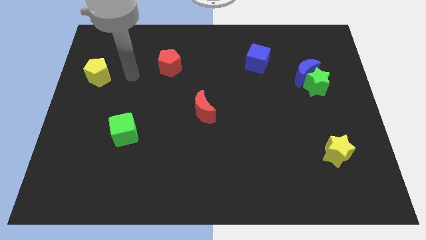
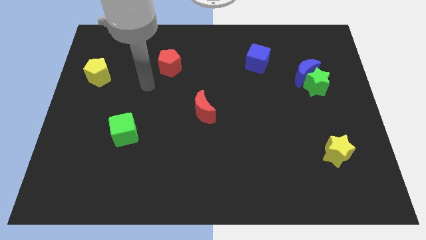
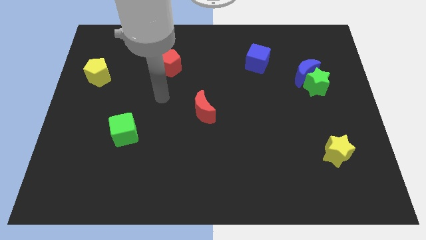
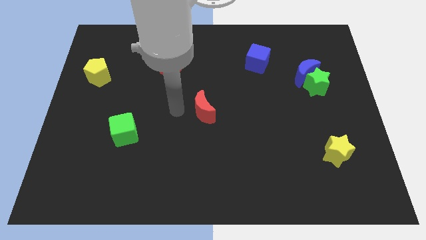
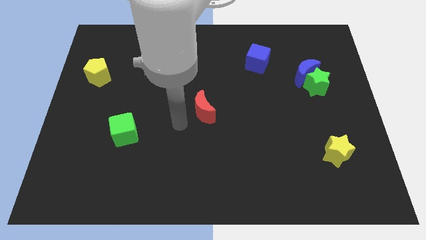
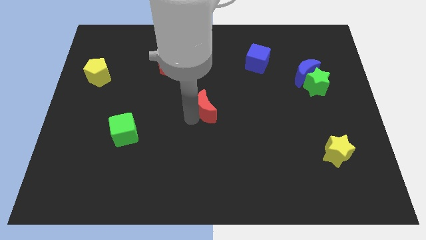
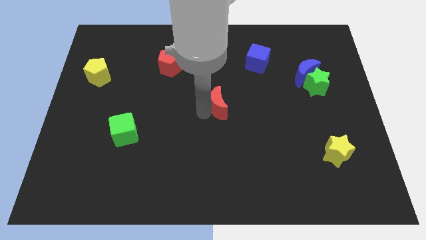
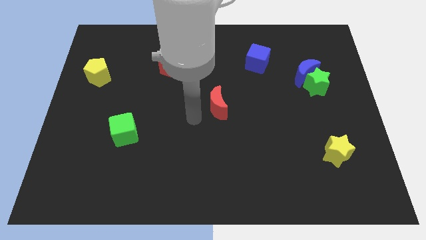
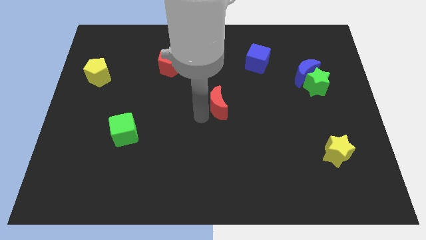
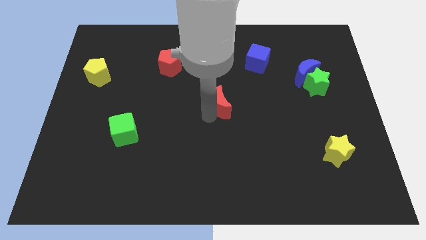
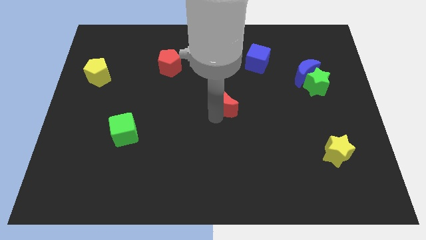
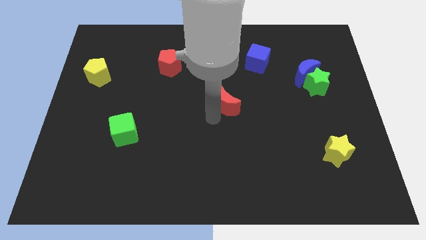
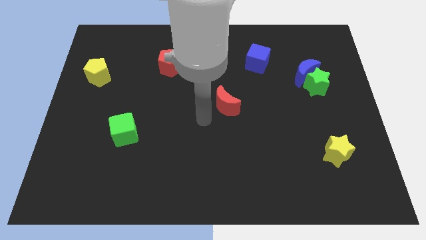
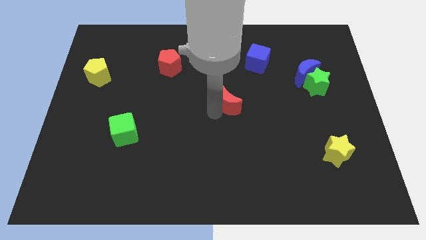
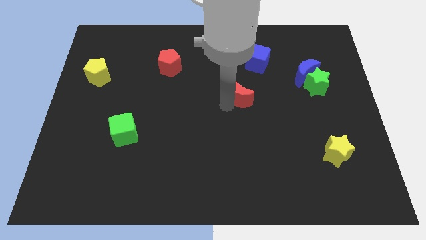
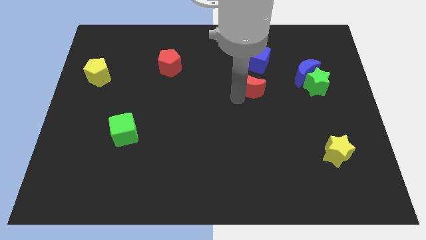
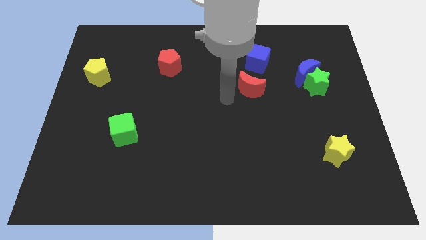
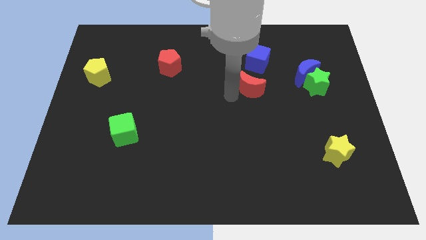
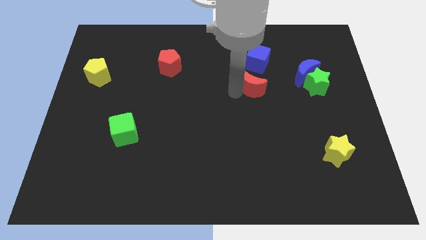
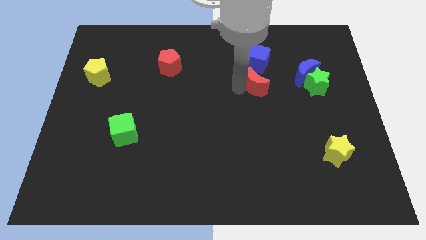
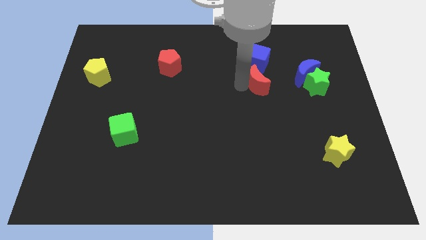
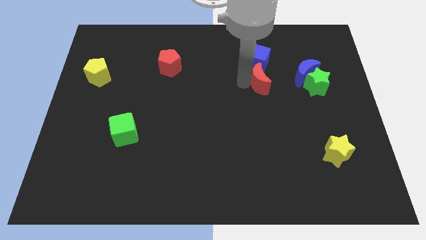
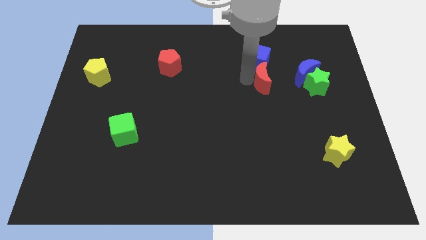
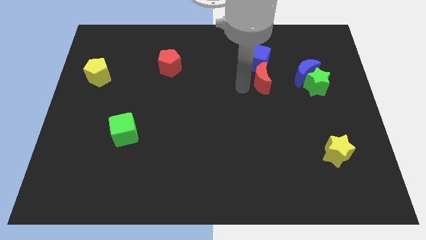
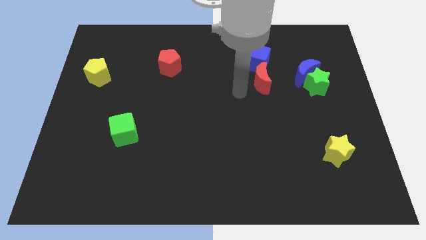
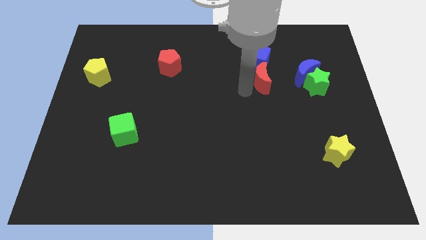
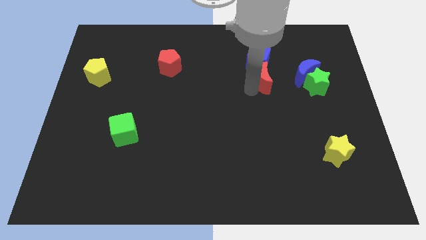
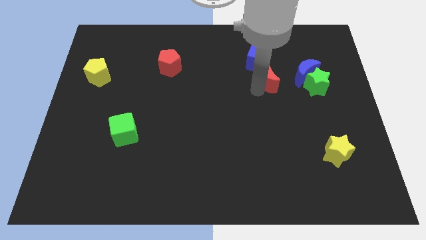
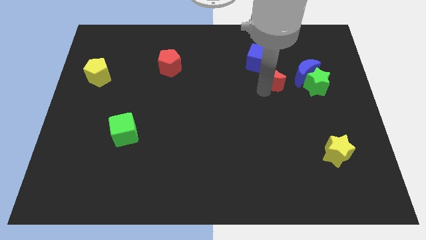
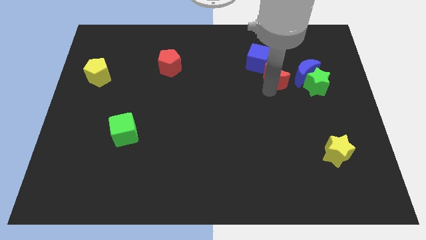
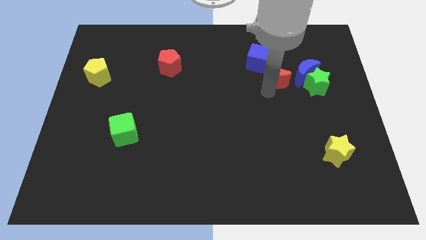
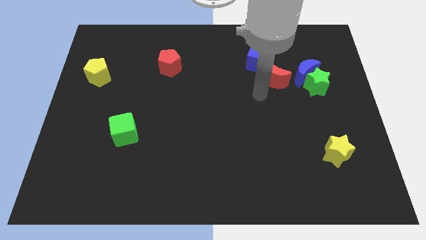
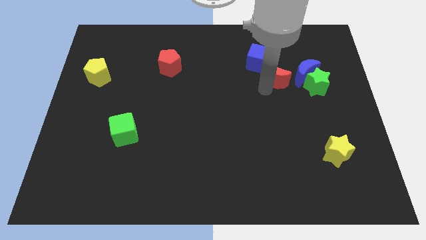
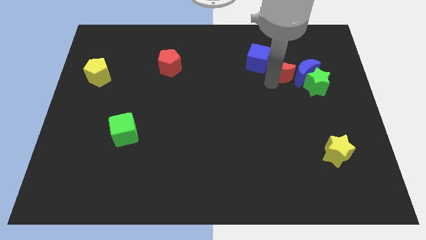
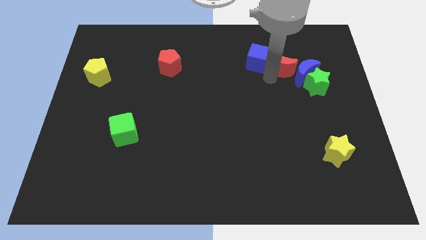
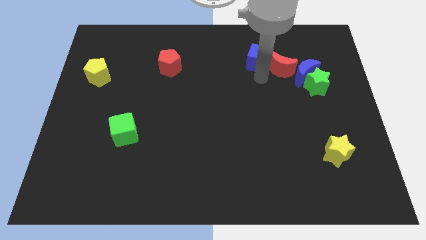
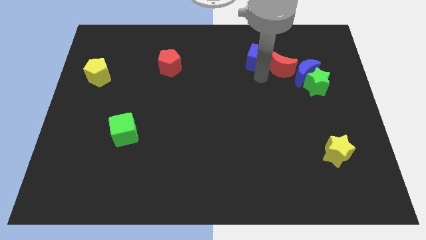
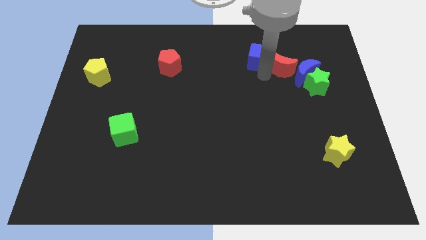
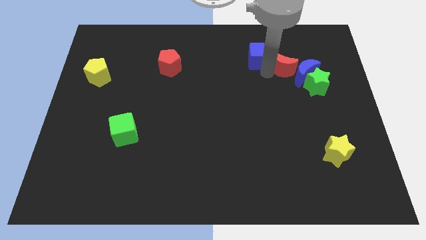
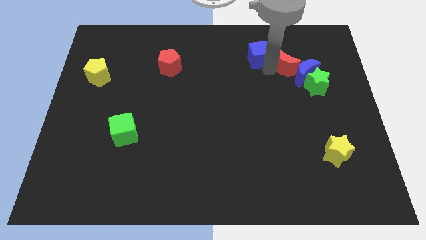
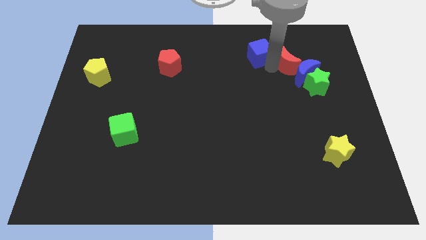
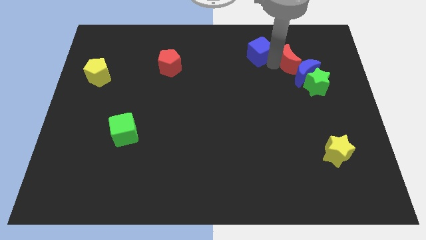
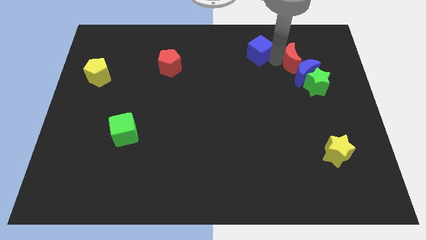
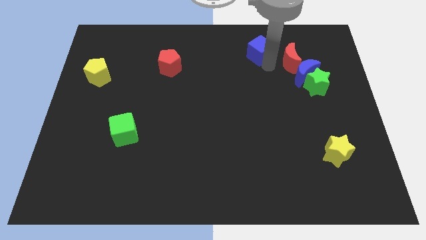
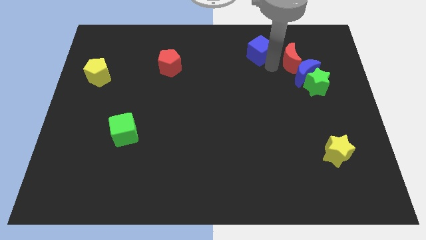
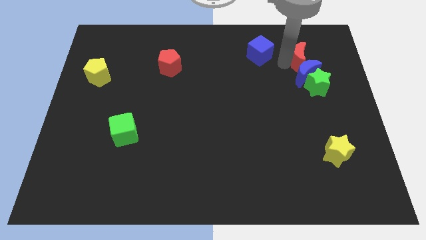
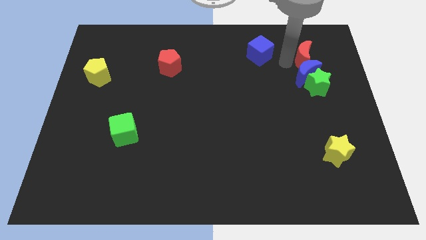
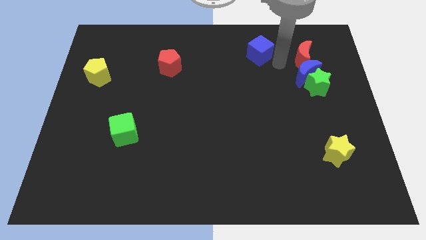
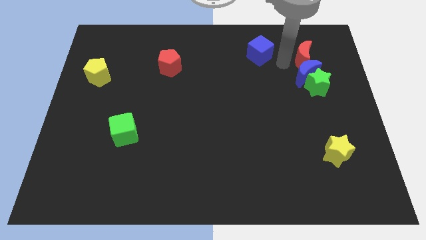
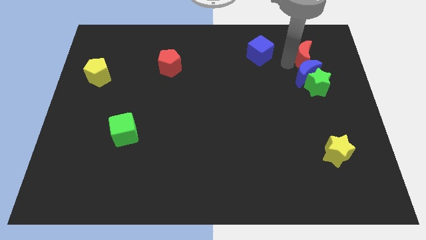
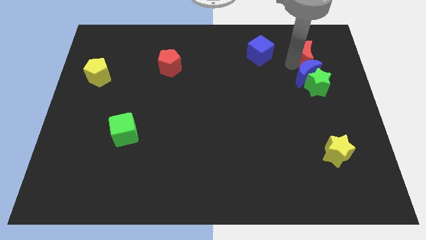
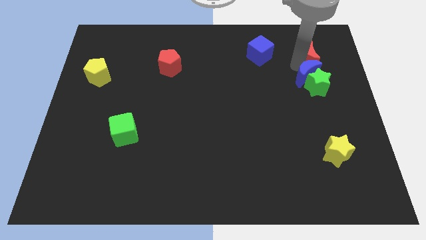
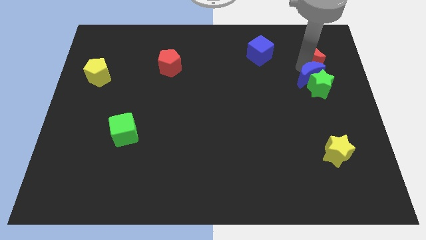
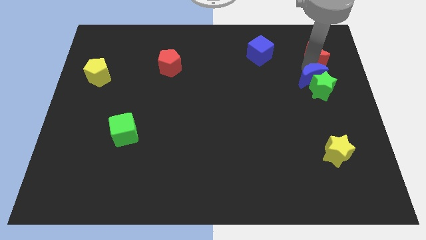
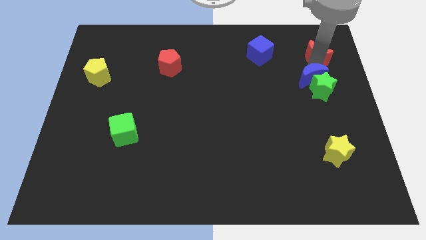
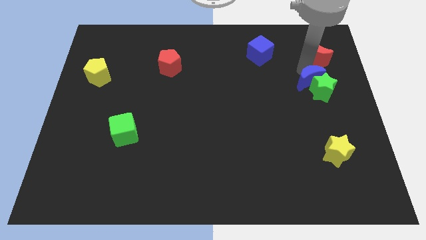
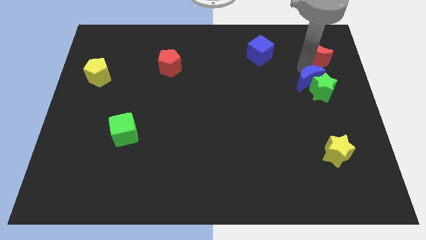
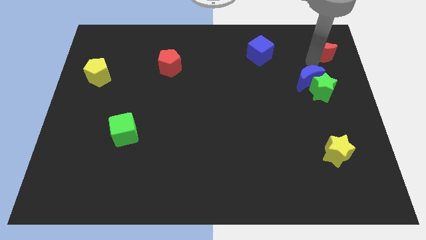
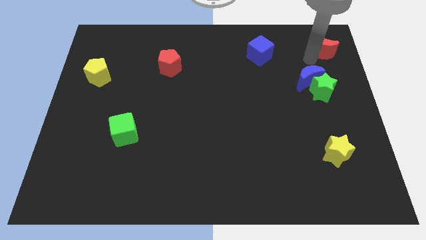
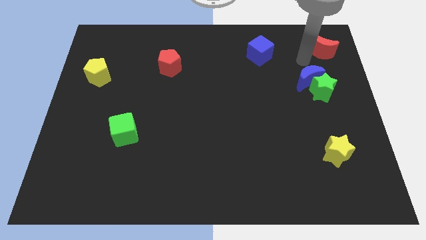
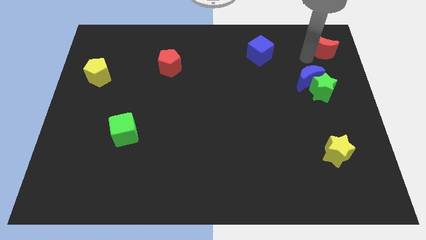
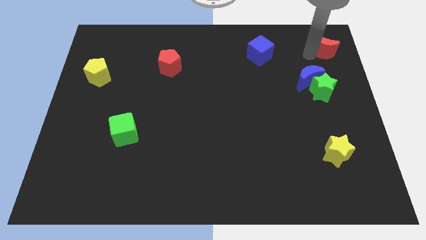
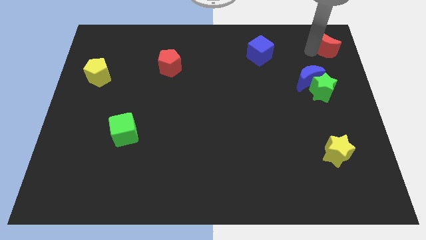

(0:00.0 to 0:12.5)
slide the red moon to the top right of the board

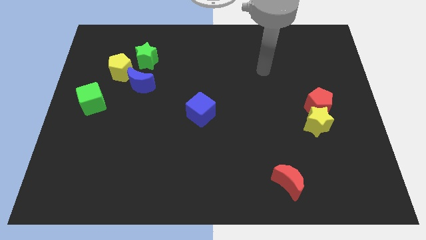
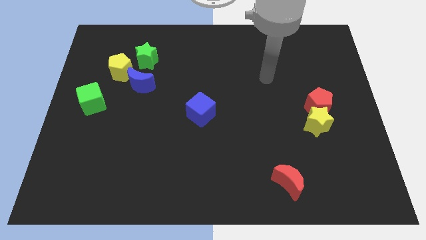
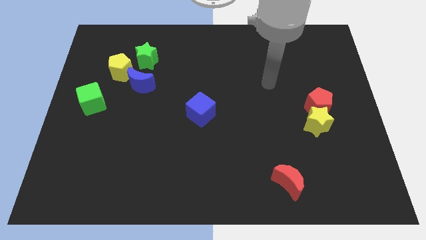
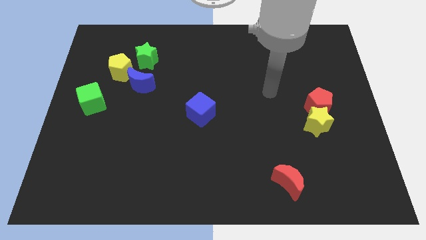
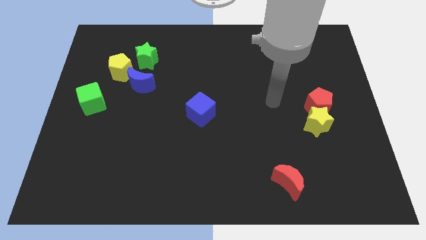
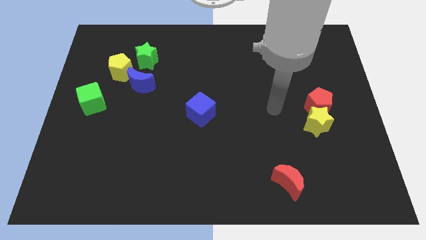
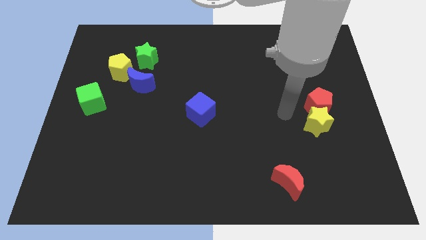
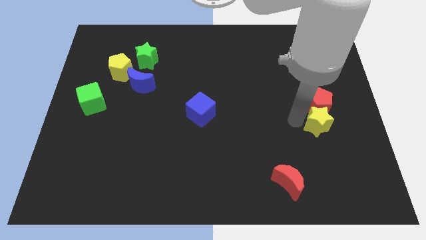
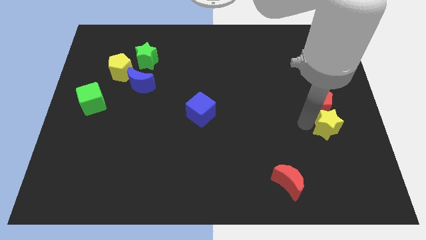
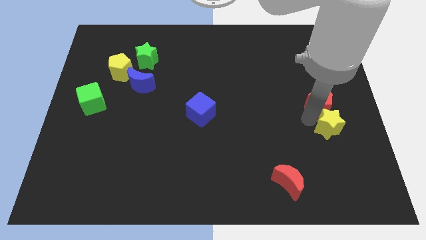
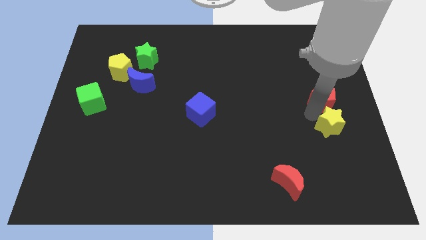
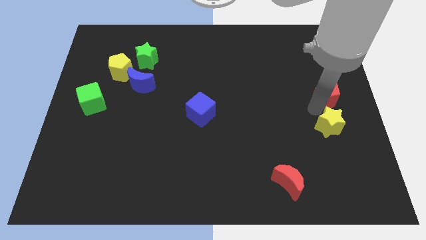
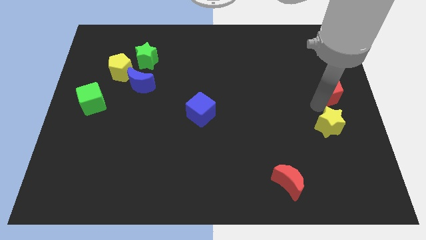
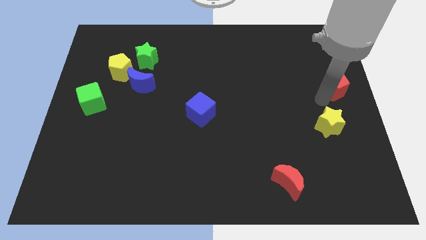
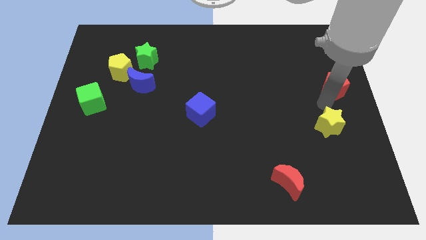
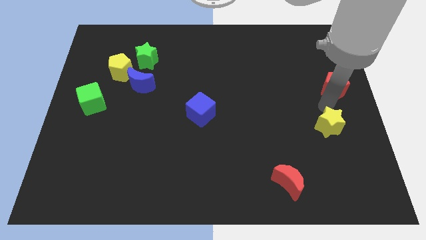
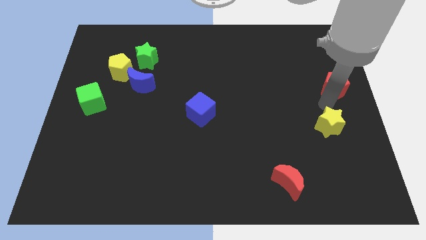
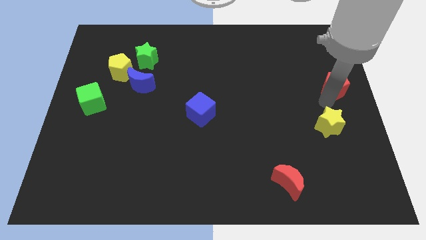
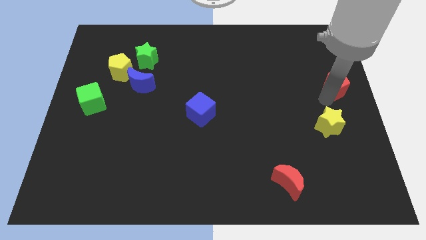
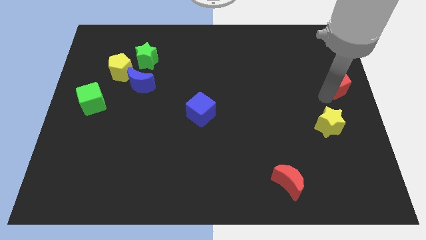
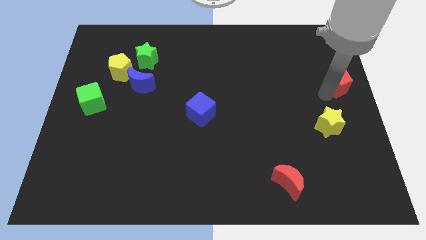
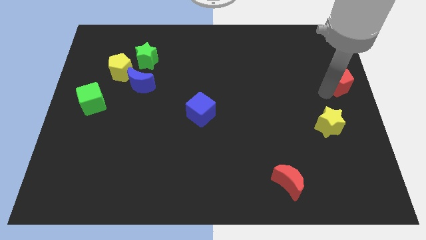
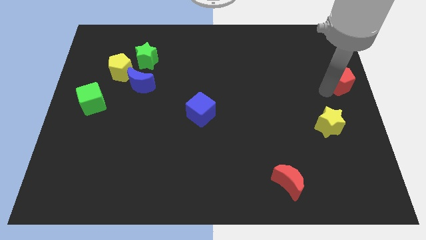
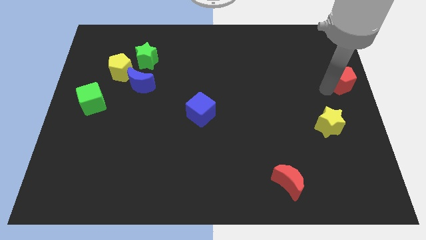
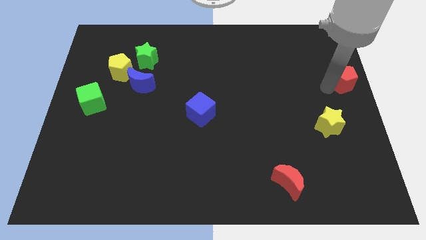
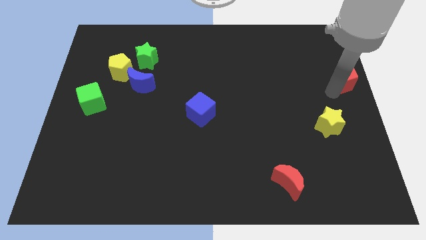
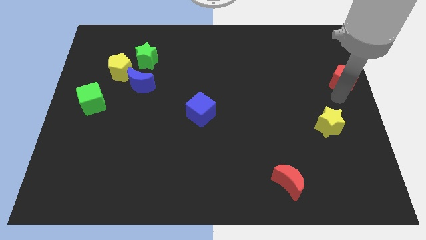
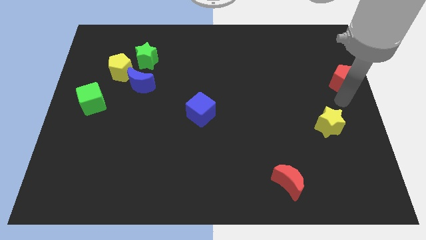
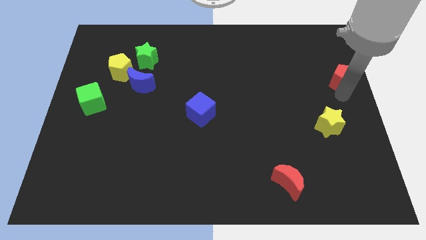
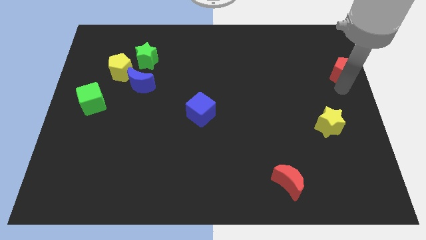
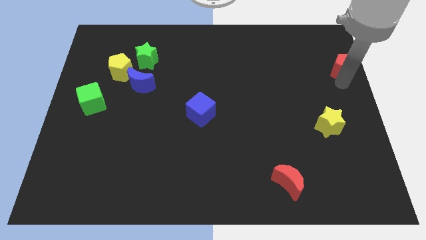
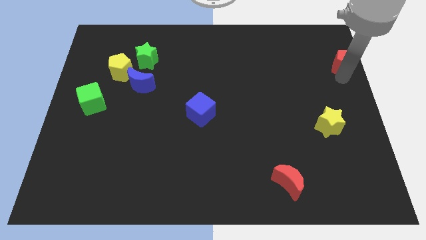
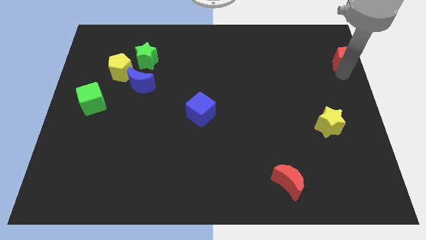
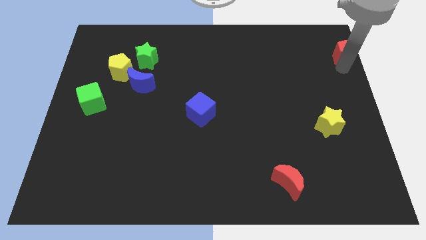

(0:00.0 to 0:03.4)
move the red pentagon to the top right corner
